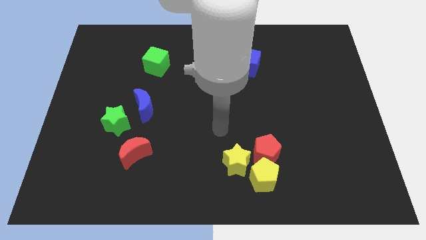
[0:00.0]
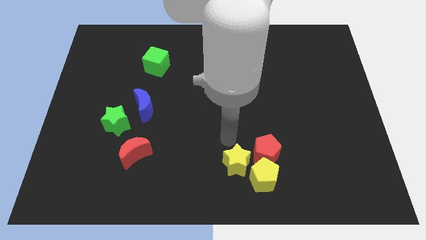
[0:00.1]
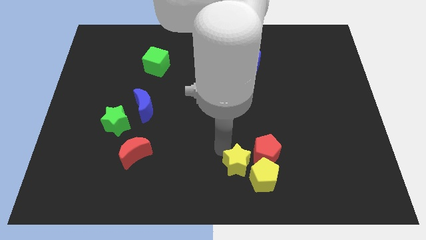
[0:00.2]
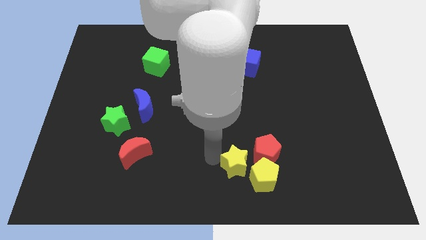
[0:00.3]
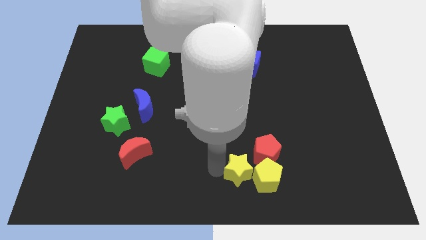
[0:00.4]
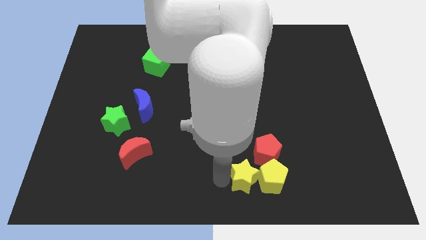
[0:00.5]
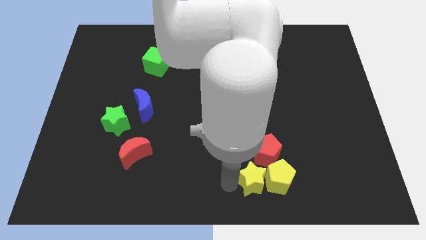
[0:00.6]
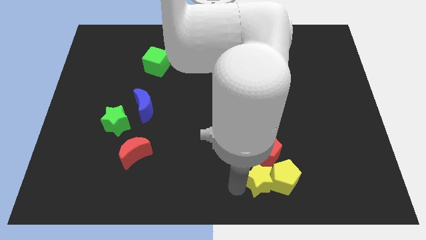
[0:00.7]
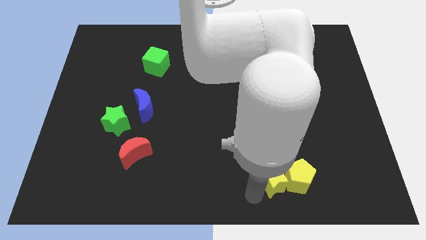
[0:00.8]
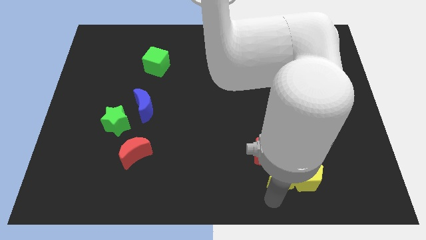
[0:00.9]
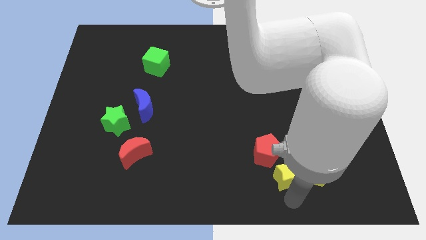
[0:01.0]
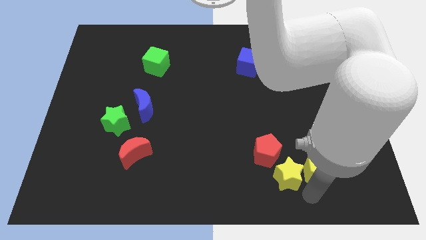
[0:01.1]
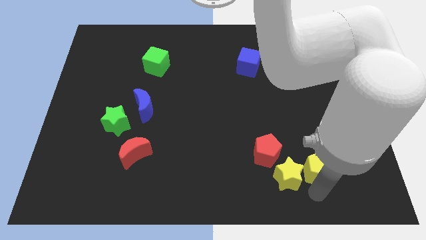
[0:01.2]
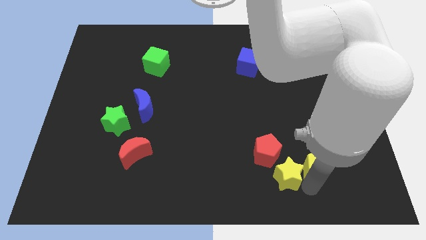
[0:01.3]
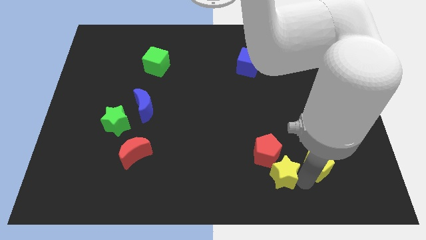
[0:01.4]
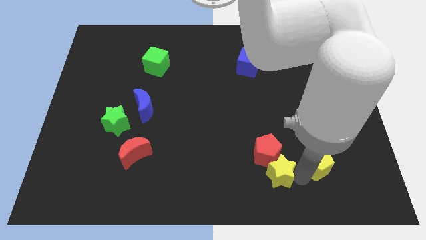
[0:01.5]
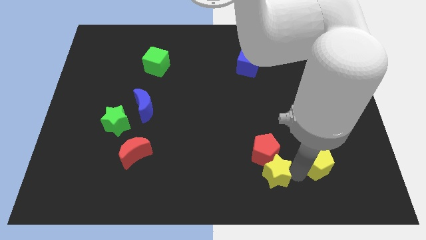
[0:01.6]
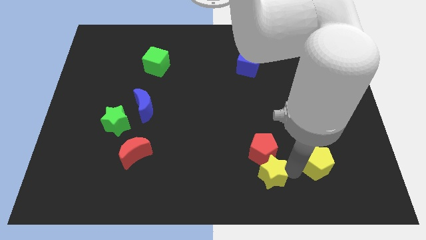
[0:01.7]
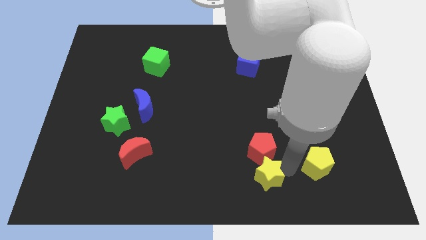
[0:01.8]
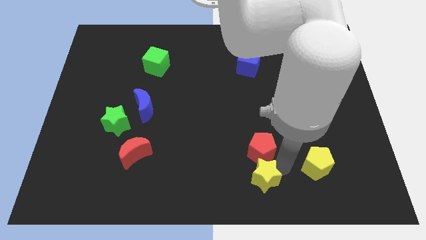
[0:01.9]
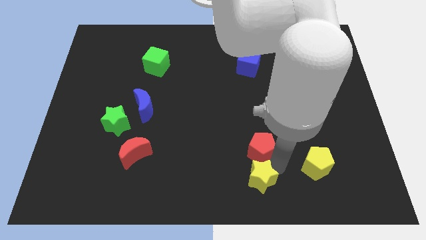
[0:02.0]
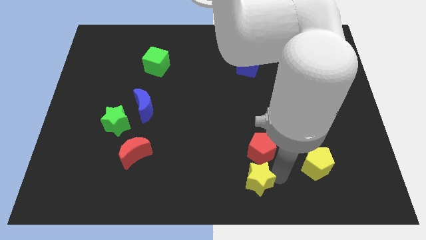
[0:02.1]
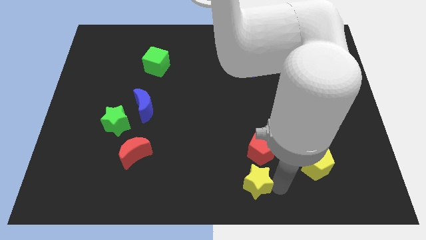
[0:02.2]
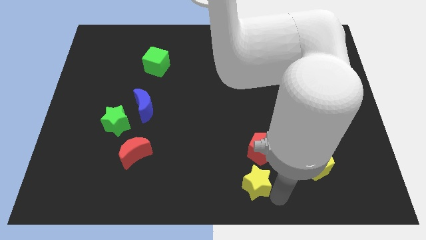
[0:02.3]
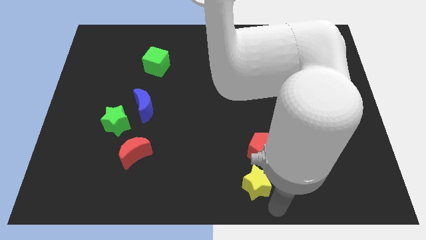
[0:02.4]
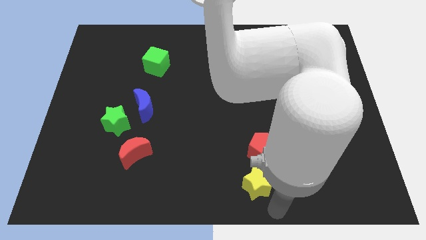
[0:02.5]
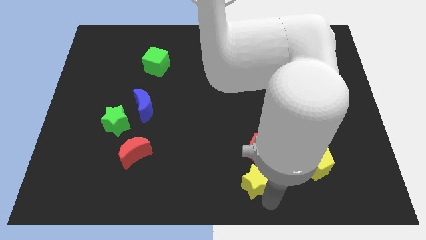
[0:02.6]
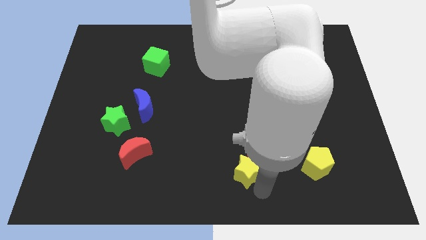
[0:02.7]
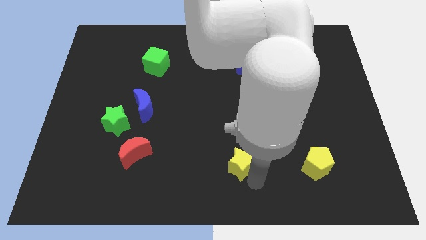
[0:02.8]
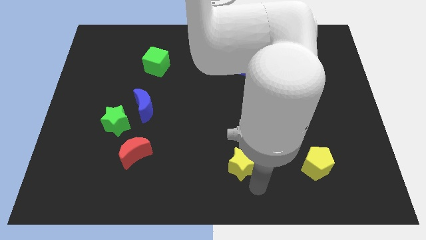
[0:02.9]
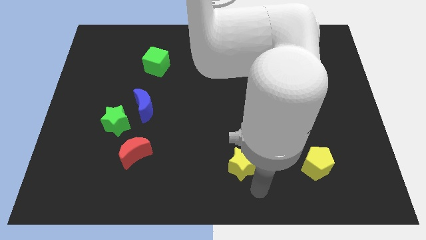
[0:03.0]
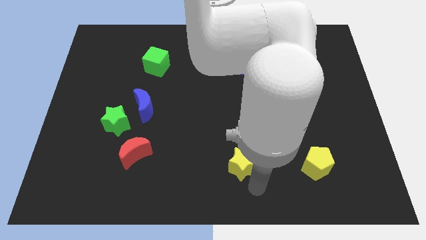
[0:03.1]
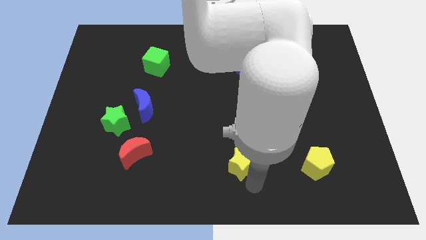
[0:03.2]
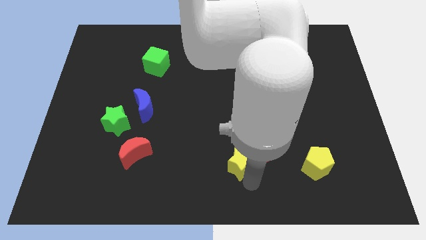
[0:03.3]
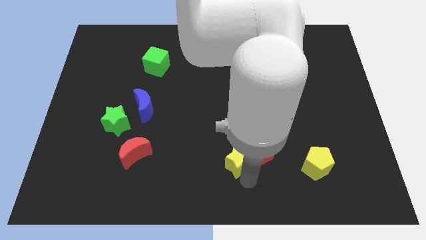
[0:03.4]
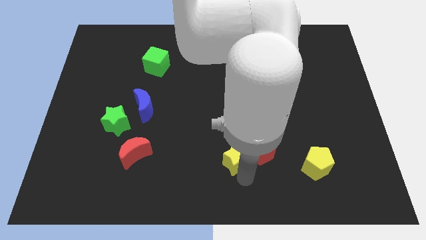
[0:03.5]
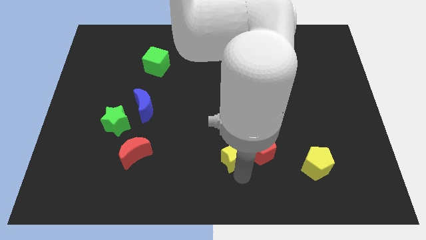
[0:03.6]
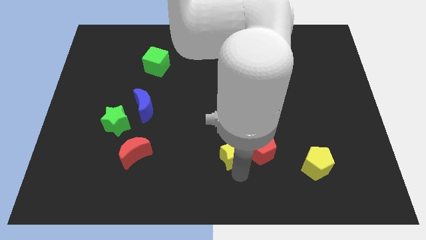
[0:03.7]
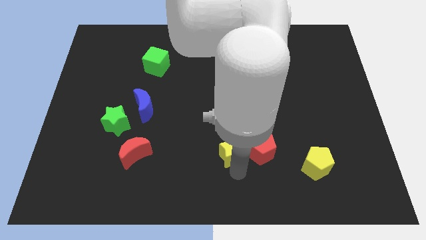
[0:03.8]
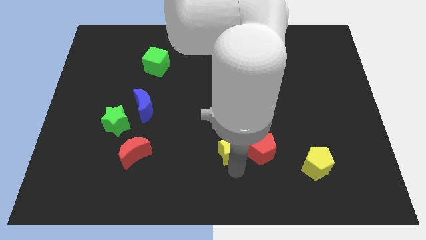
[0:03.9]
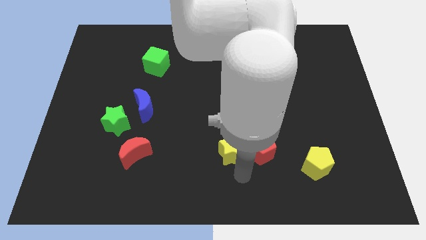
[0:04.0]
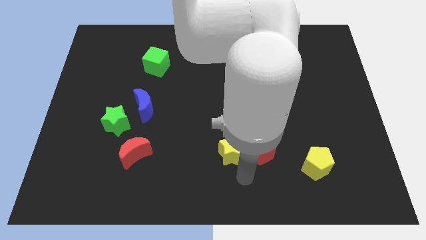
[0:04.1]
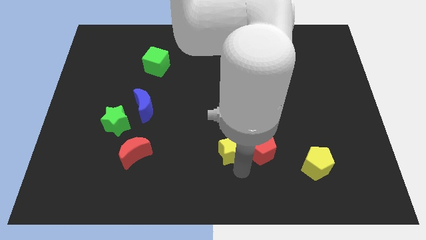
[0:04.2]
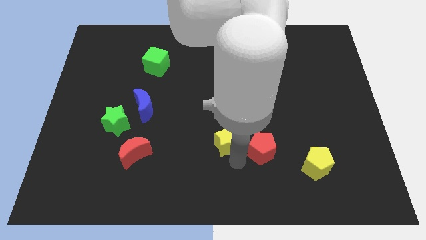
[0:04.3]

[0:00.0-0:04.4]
put the yellow star to the middle

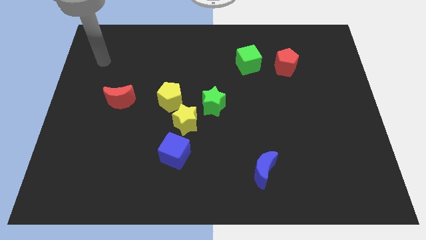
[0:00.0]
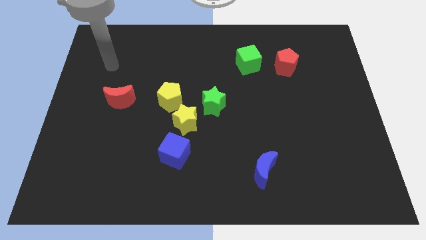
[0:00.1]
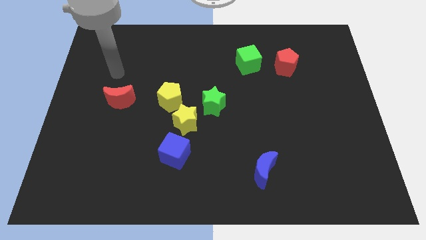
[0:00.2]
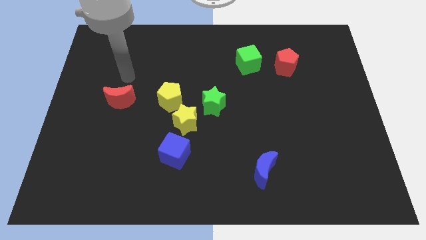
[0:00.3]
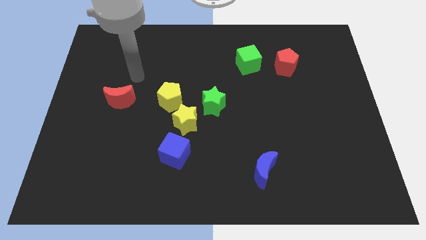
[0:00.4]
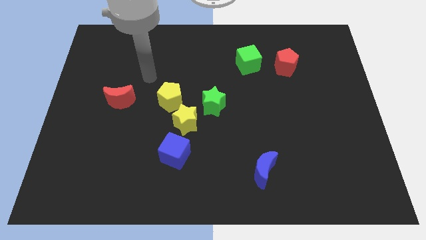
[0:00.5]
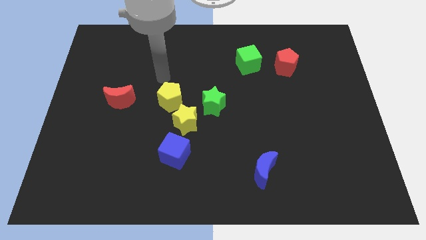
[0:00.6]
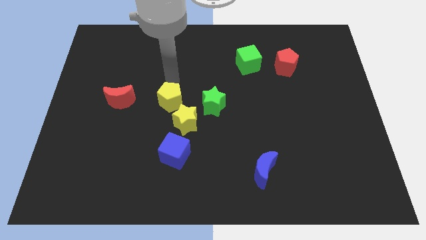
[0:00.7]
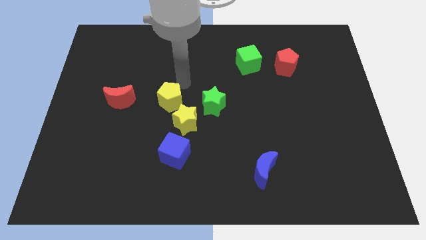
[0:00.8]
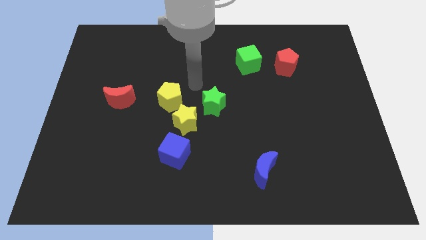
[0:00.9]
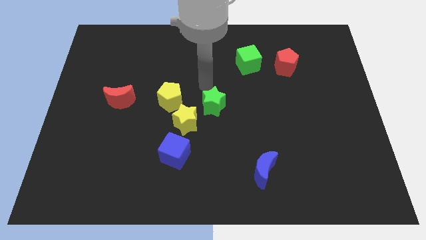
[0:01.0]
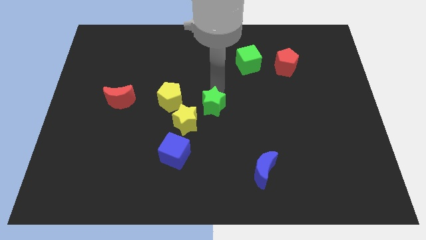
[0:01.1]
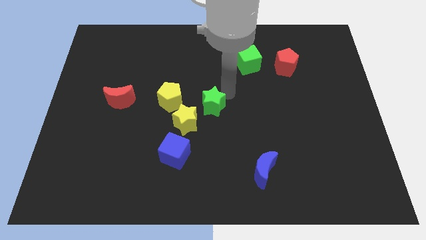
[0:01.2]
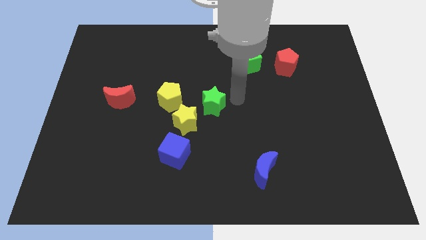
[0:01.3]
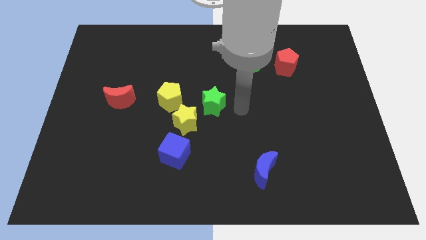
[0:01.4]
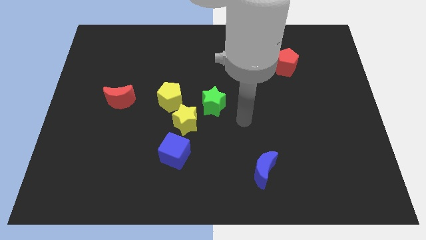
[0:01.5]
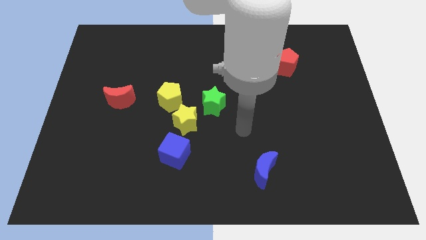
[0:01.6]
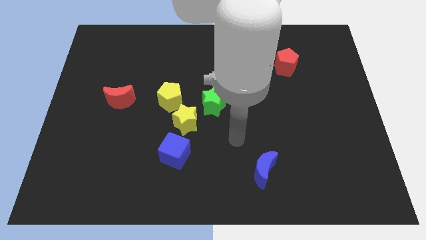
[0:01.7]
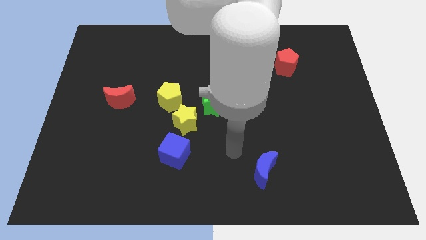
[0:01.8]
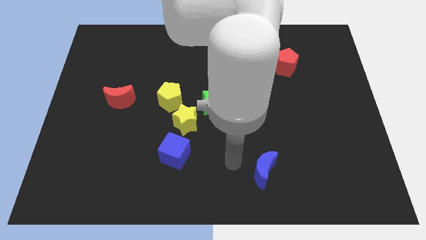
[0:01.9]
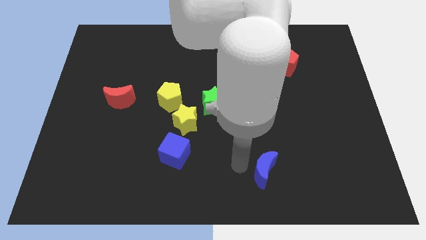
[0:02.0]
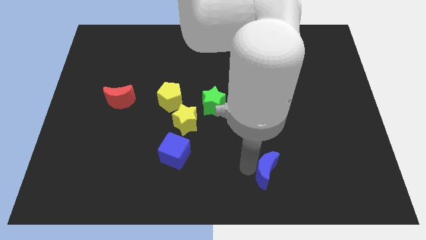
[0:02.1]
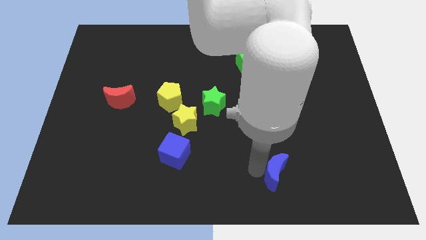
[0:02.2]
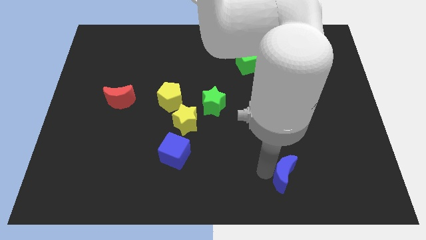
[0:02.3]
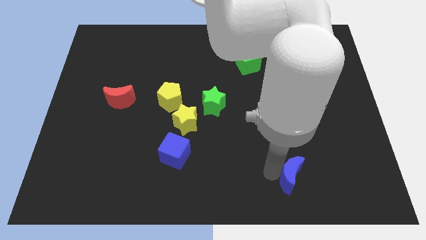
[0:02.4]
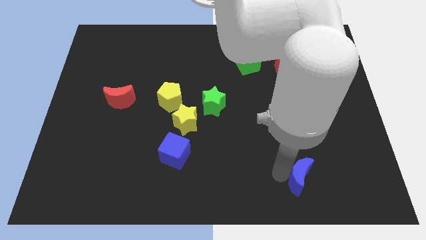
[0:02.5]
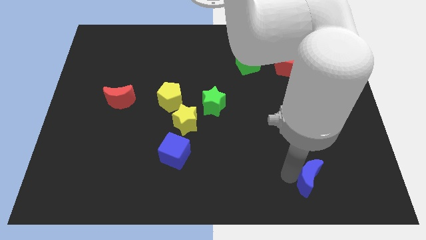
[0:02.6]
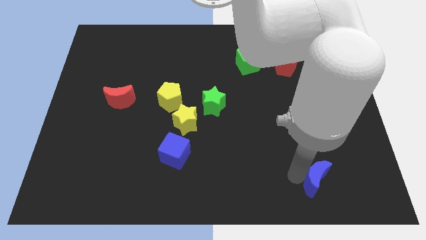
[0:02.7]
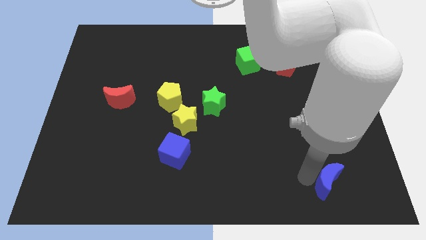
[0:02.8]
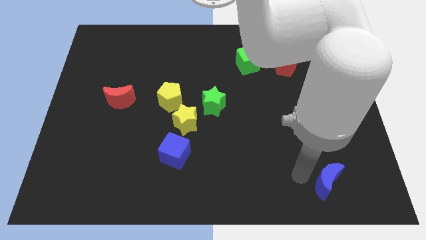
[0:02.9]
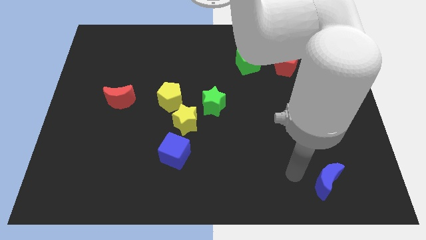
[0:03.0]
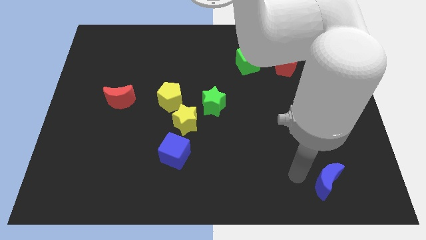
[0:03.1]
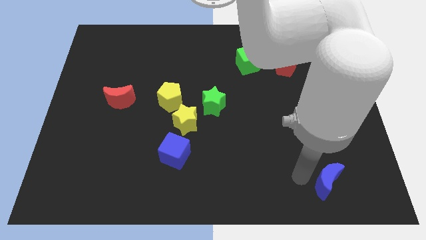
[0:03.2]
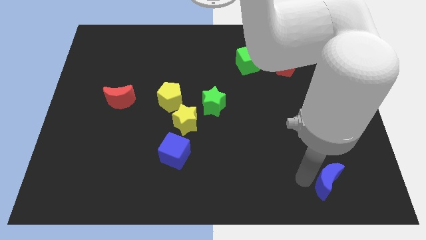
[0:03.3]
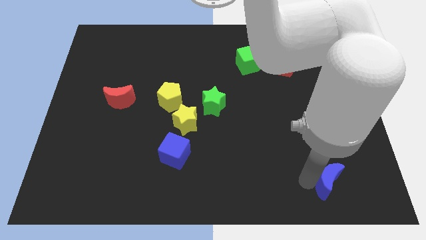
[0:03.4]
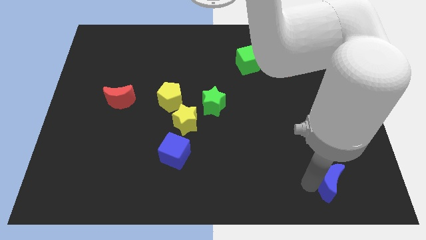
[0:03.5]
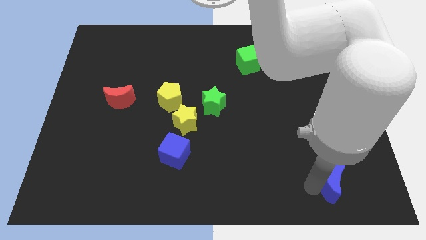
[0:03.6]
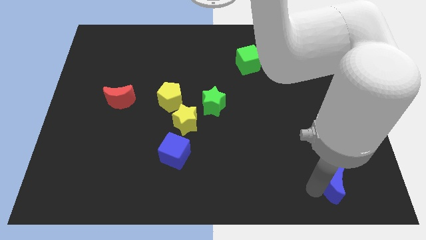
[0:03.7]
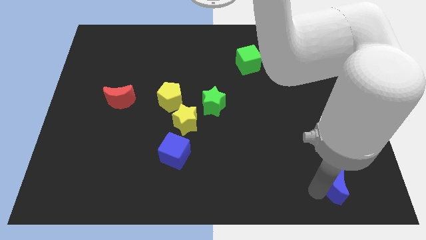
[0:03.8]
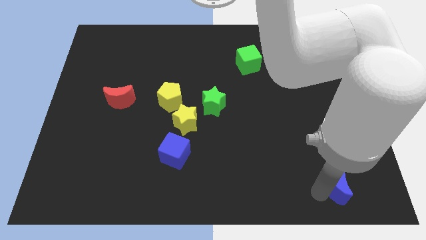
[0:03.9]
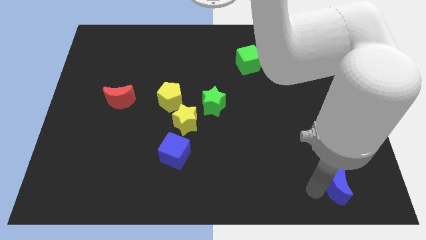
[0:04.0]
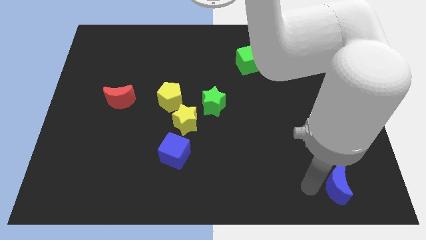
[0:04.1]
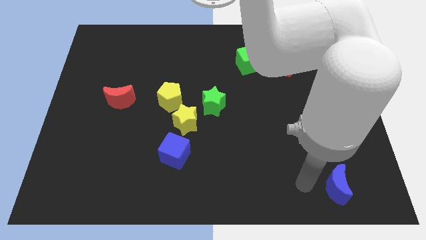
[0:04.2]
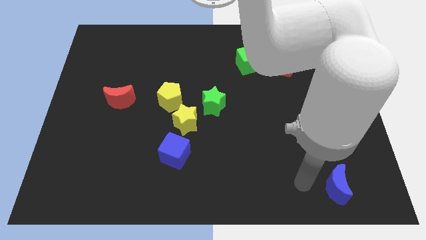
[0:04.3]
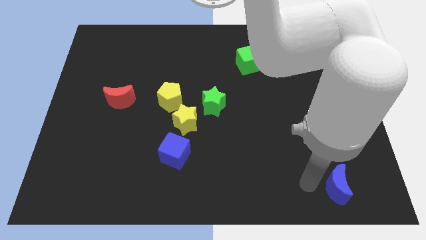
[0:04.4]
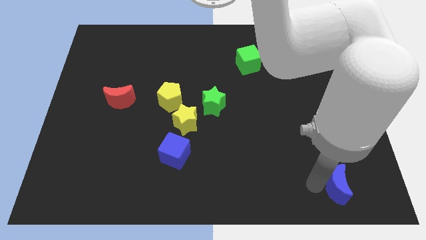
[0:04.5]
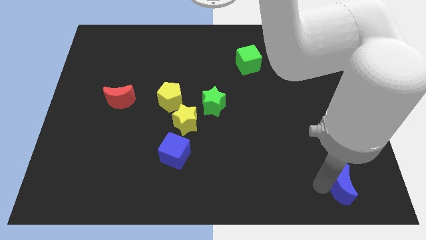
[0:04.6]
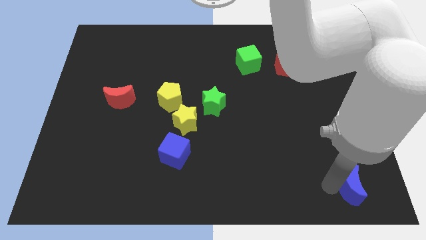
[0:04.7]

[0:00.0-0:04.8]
push the blue moon to the bottom right corner
